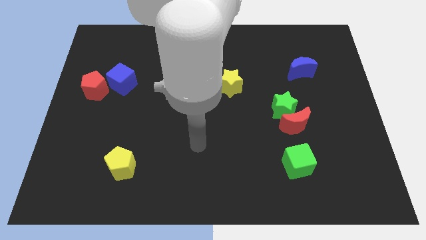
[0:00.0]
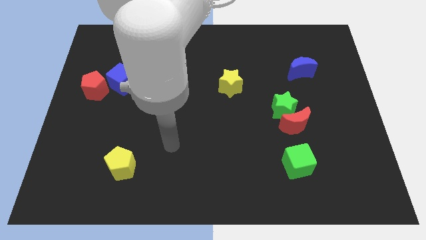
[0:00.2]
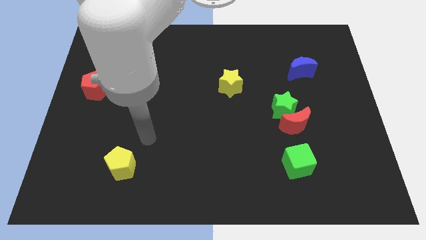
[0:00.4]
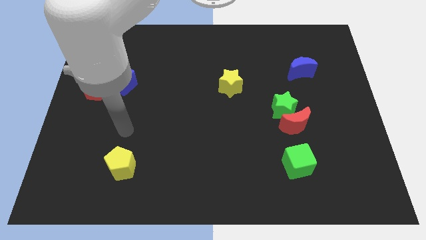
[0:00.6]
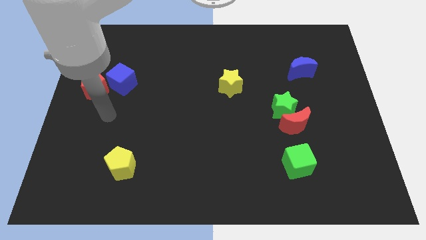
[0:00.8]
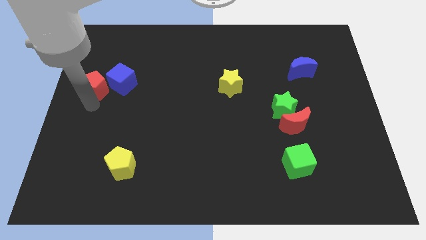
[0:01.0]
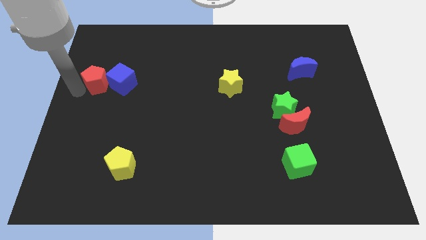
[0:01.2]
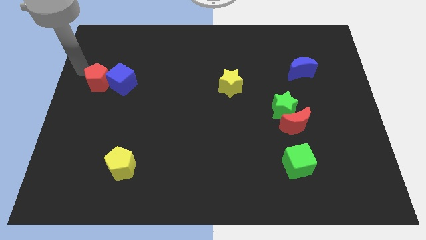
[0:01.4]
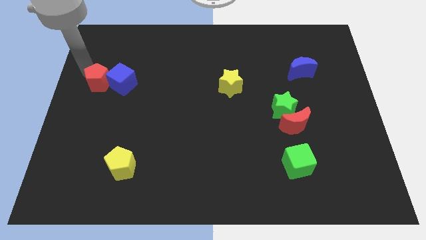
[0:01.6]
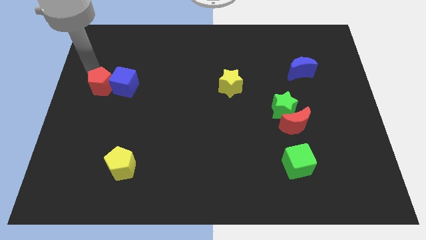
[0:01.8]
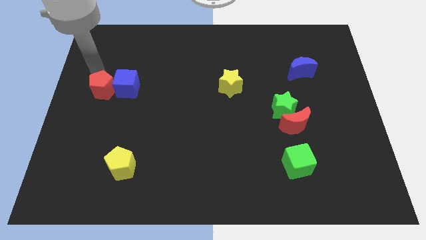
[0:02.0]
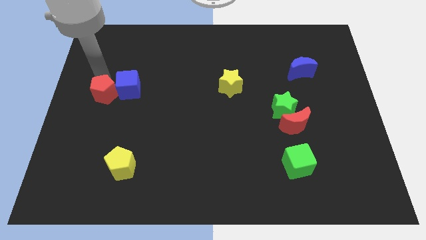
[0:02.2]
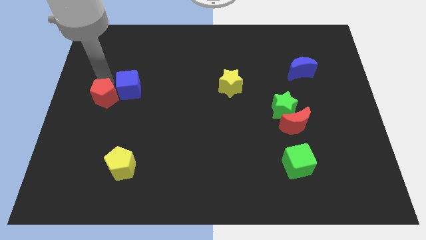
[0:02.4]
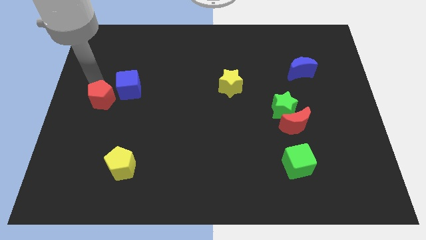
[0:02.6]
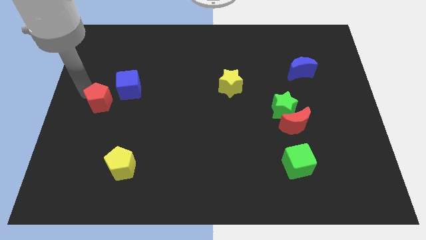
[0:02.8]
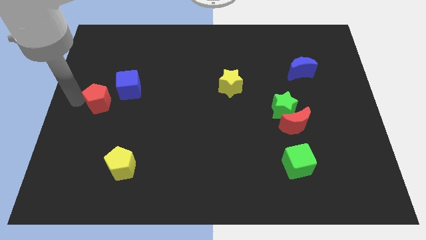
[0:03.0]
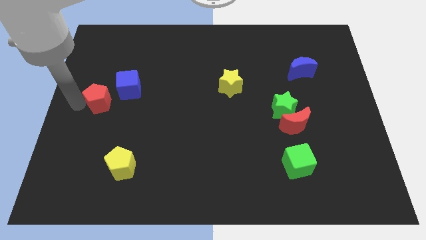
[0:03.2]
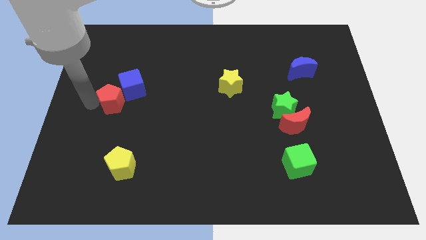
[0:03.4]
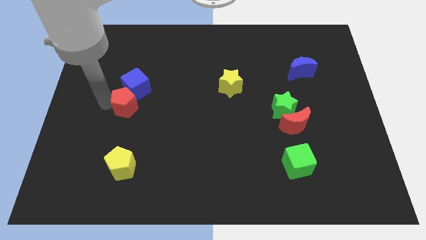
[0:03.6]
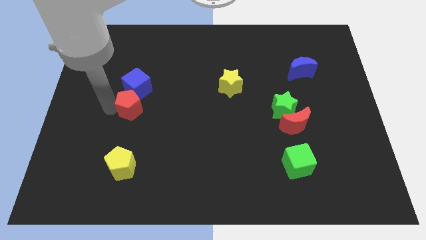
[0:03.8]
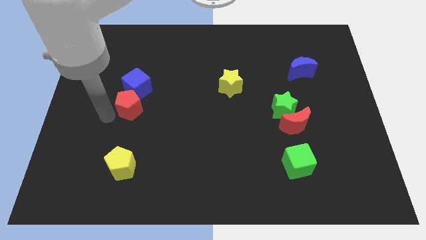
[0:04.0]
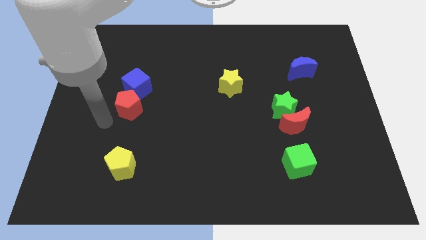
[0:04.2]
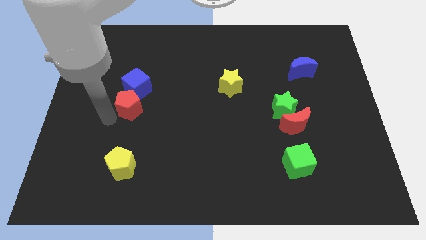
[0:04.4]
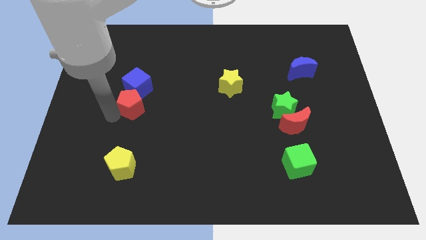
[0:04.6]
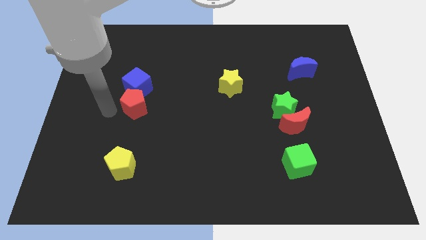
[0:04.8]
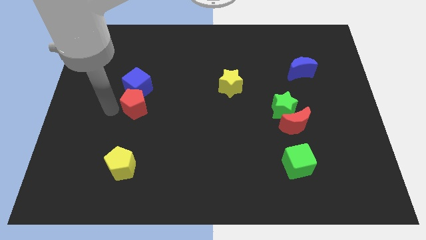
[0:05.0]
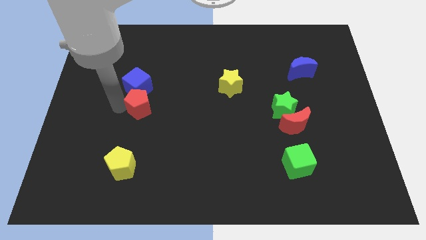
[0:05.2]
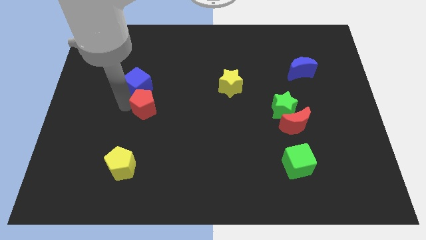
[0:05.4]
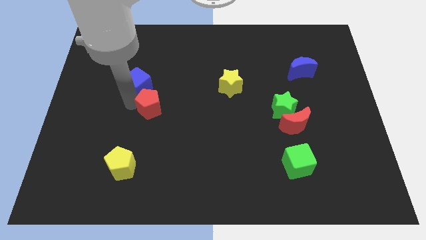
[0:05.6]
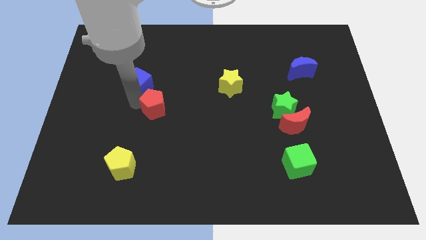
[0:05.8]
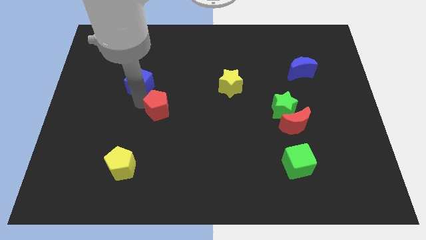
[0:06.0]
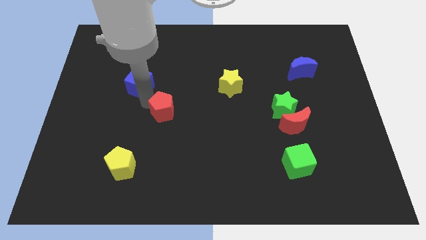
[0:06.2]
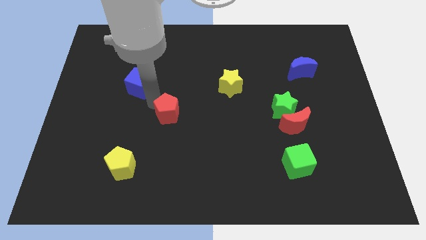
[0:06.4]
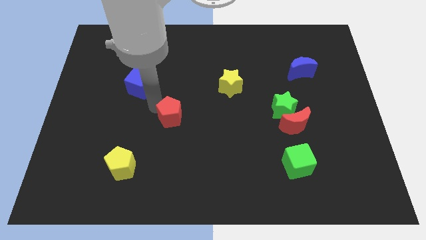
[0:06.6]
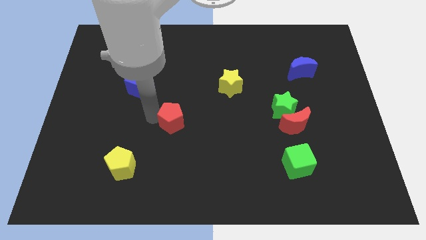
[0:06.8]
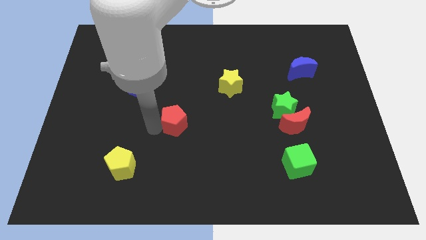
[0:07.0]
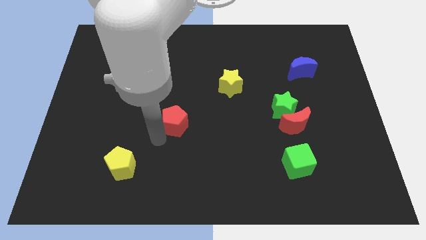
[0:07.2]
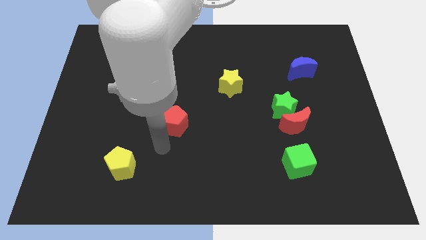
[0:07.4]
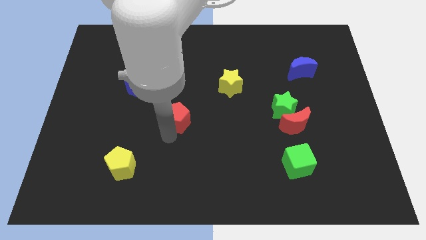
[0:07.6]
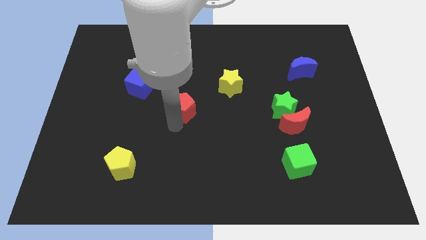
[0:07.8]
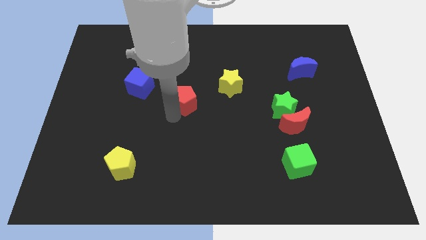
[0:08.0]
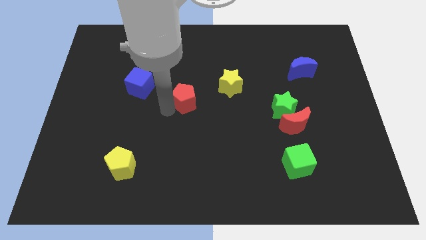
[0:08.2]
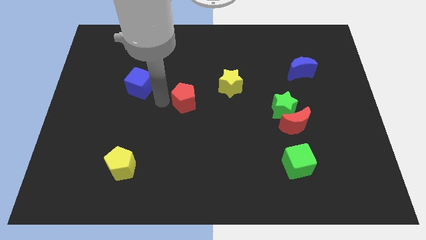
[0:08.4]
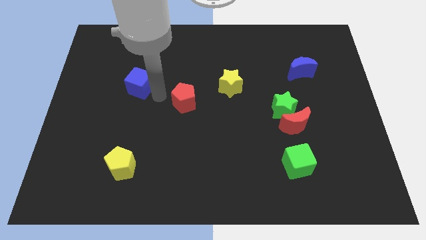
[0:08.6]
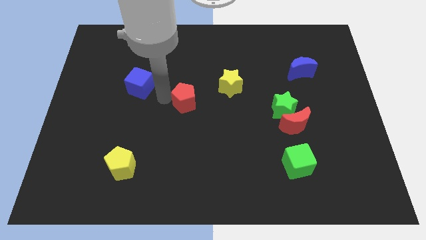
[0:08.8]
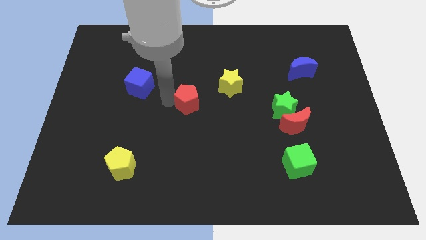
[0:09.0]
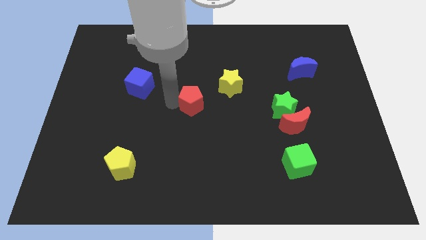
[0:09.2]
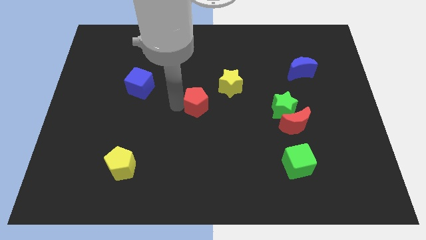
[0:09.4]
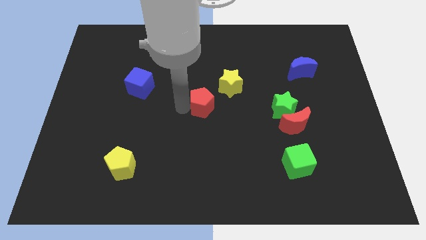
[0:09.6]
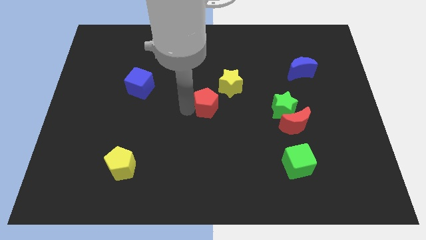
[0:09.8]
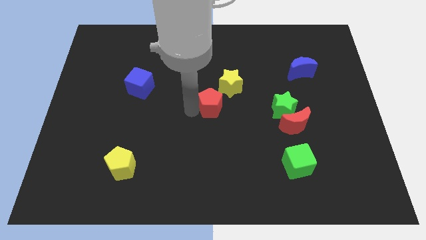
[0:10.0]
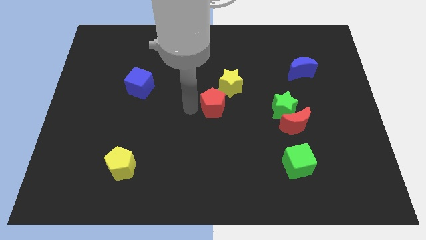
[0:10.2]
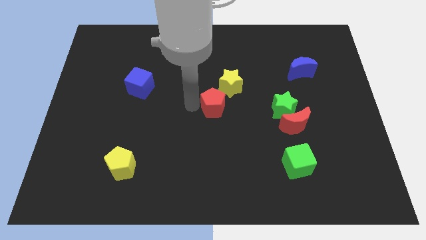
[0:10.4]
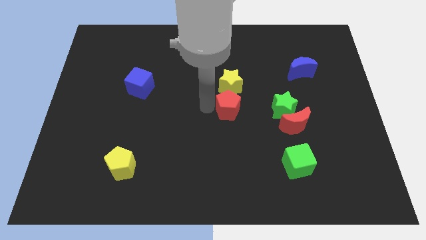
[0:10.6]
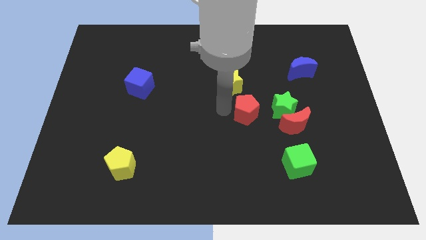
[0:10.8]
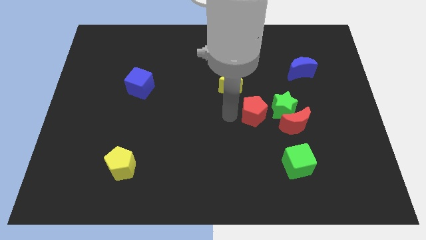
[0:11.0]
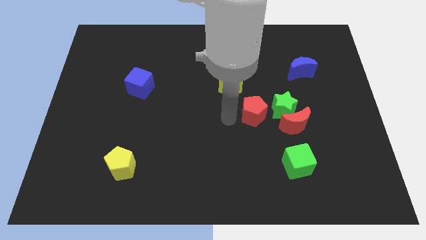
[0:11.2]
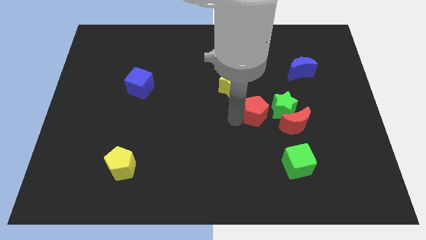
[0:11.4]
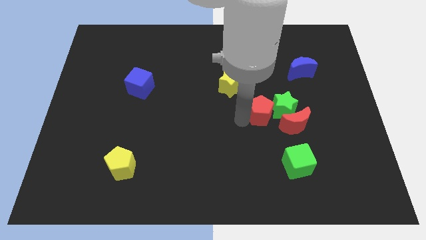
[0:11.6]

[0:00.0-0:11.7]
push the red pentagon to the green star

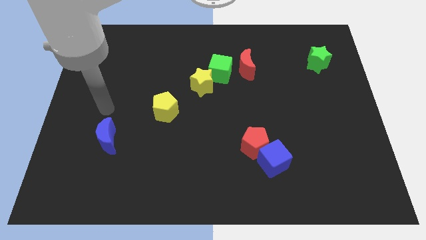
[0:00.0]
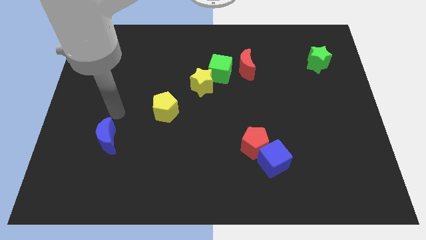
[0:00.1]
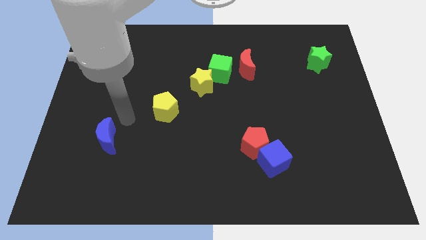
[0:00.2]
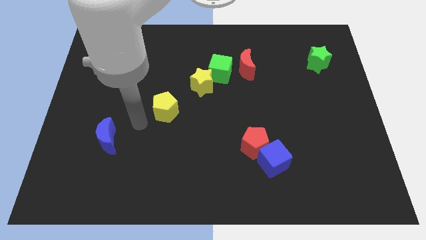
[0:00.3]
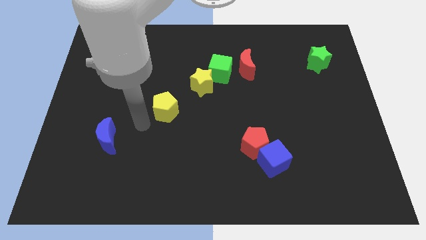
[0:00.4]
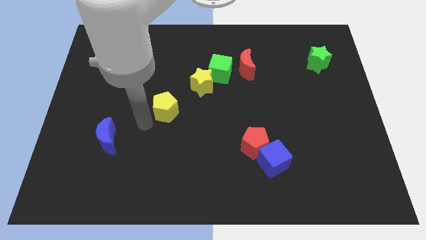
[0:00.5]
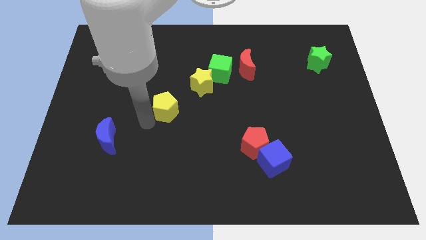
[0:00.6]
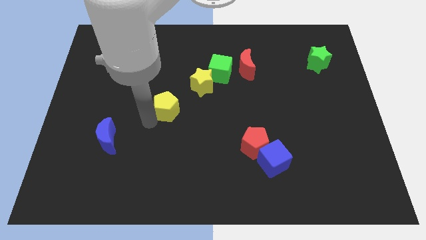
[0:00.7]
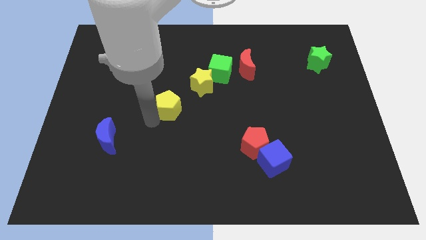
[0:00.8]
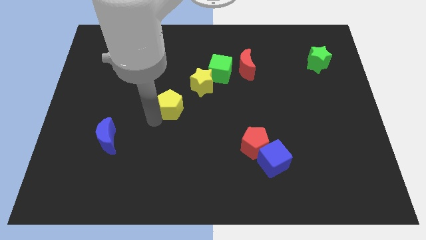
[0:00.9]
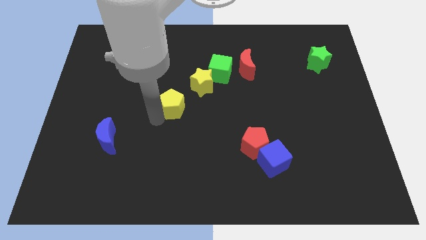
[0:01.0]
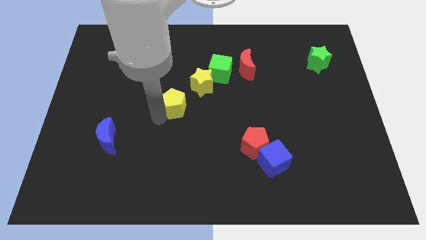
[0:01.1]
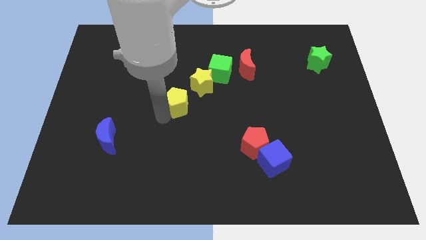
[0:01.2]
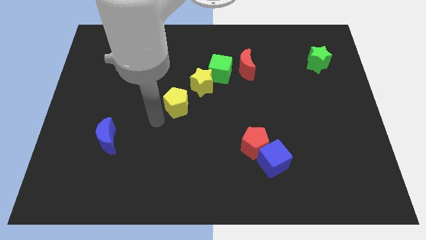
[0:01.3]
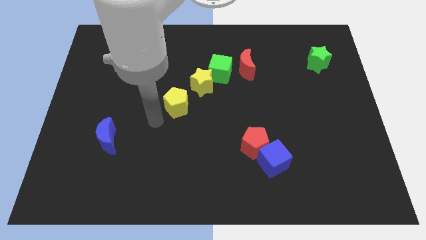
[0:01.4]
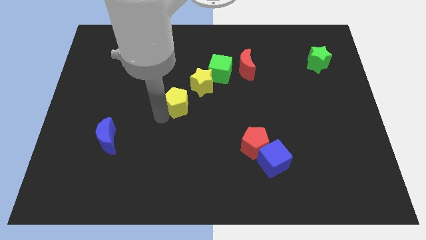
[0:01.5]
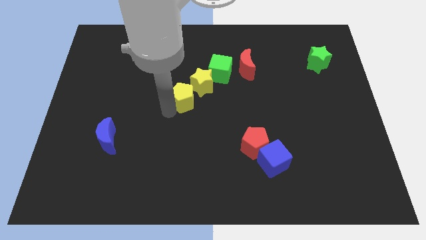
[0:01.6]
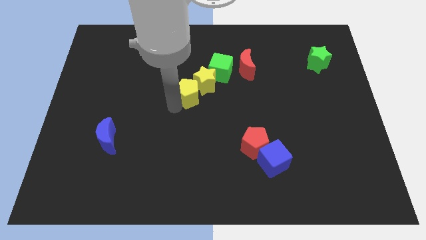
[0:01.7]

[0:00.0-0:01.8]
slide the yellow pentagon towards the yellow star
